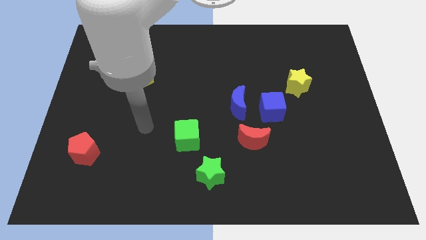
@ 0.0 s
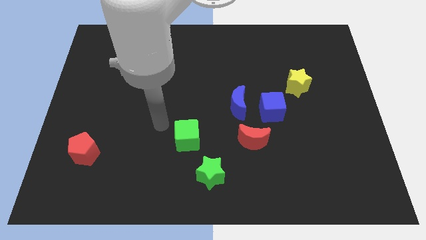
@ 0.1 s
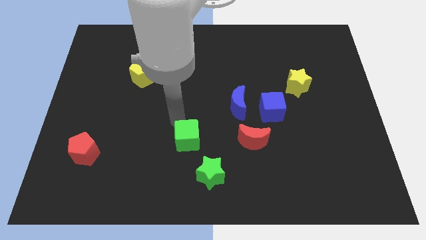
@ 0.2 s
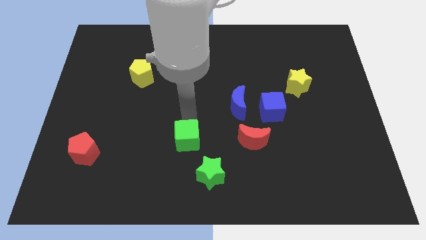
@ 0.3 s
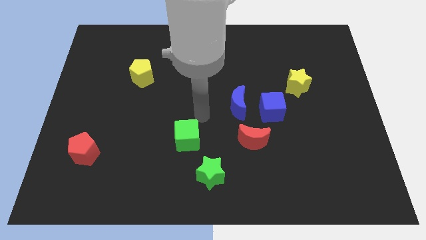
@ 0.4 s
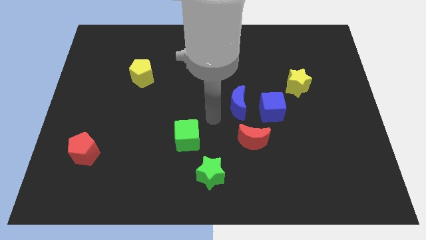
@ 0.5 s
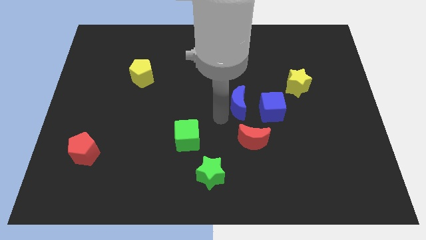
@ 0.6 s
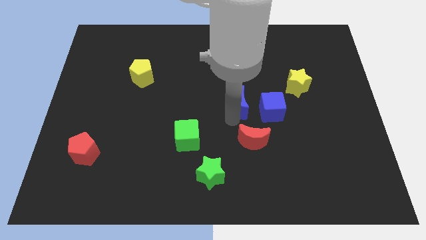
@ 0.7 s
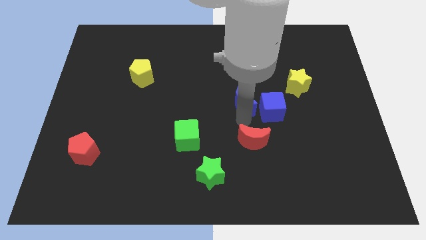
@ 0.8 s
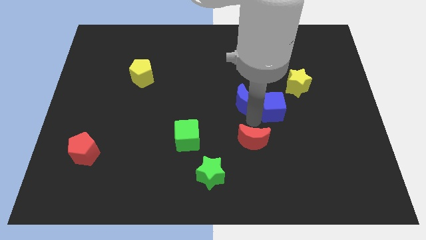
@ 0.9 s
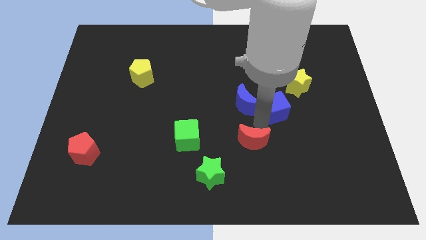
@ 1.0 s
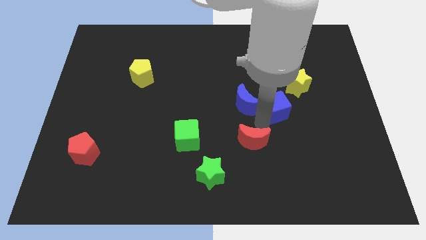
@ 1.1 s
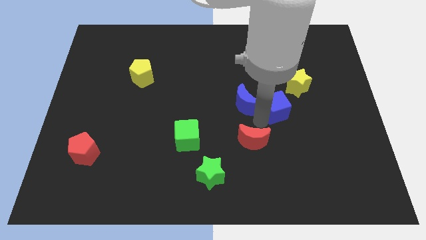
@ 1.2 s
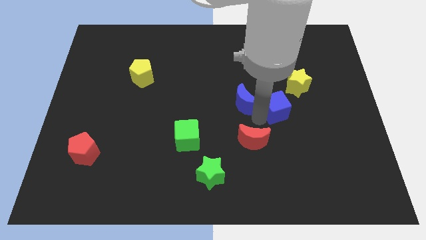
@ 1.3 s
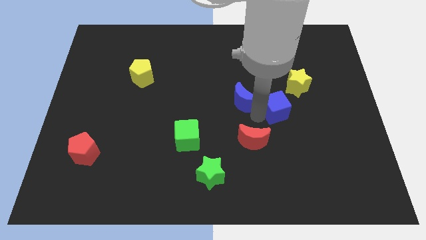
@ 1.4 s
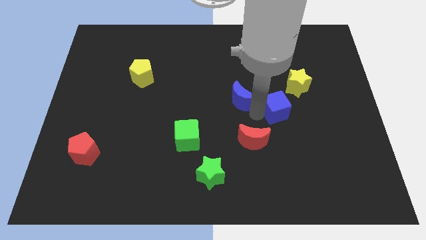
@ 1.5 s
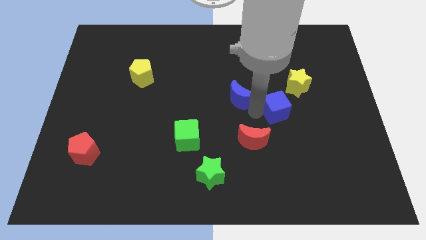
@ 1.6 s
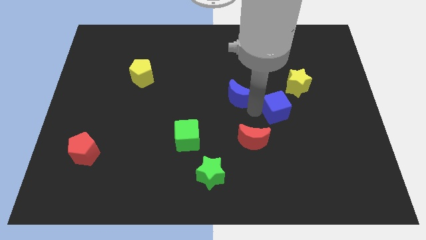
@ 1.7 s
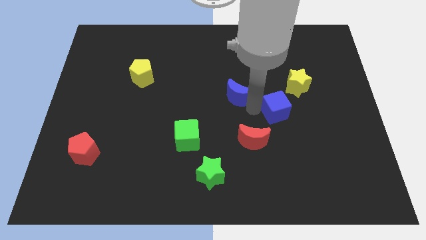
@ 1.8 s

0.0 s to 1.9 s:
pull the blue moon apart from the blue cube and red moon

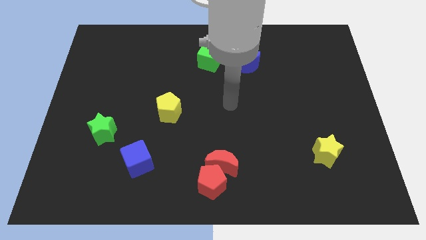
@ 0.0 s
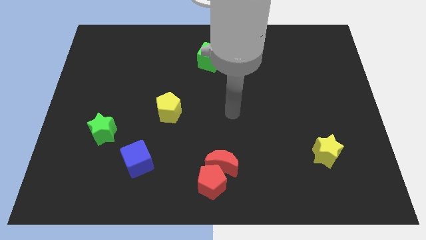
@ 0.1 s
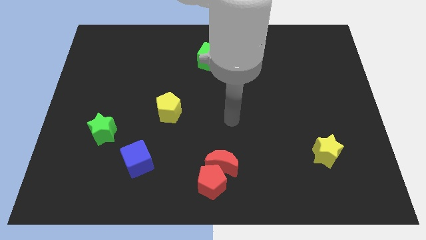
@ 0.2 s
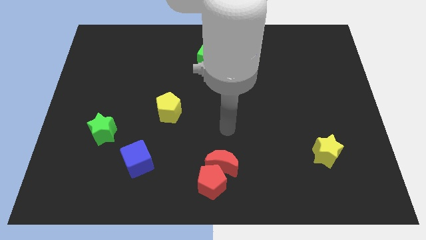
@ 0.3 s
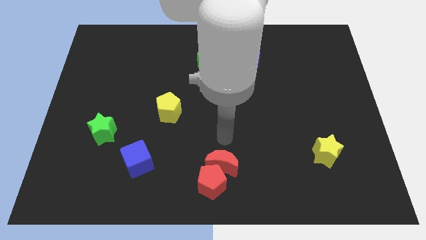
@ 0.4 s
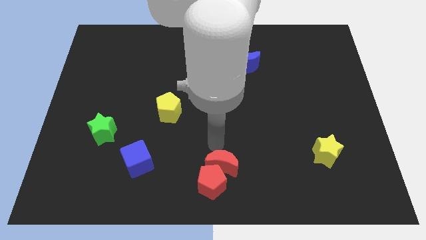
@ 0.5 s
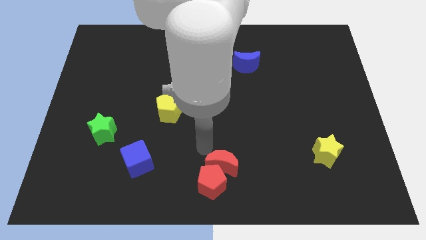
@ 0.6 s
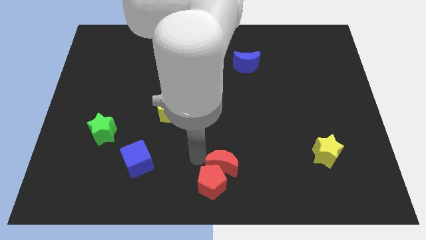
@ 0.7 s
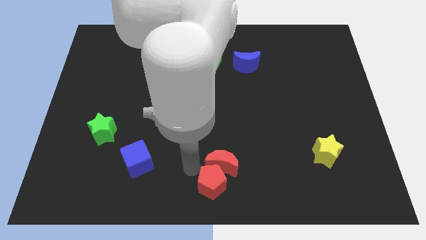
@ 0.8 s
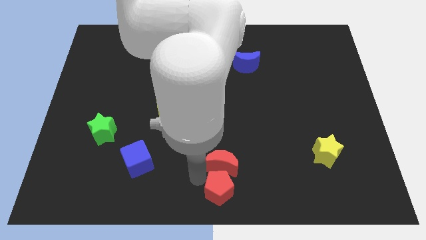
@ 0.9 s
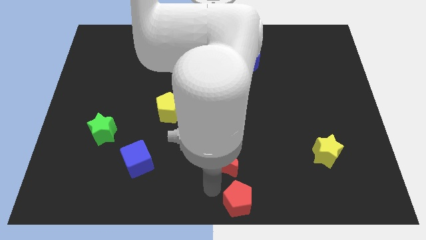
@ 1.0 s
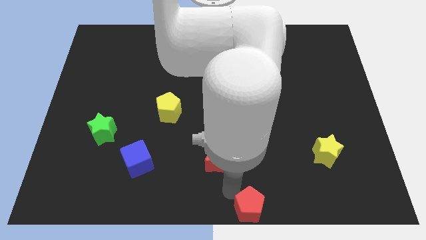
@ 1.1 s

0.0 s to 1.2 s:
move the red moon away from the red pentagon

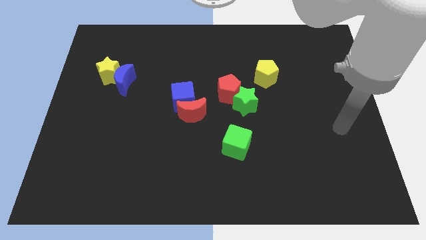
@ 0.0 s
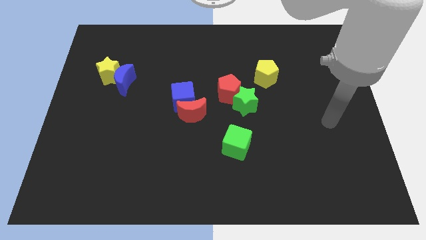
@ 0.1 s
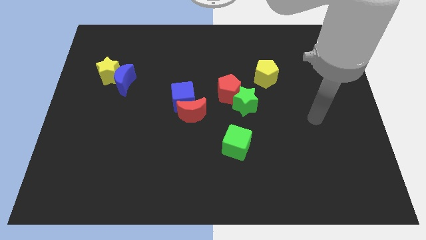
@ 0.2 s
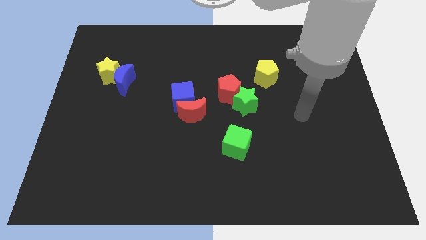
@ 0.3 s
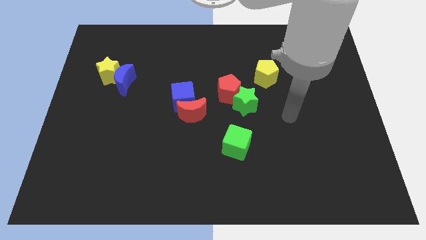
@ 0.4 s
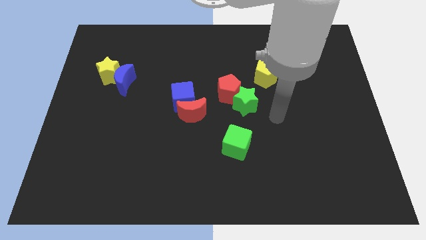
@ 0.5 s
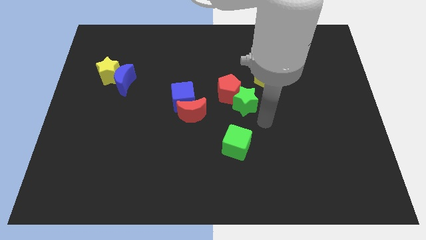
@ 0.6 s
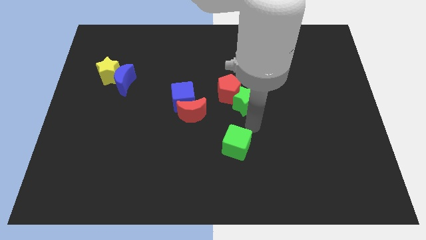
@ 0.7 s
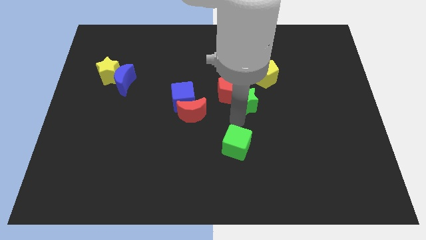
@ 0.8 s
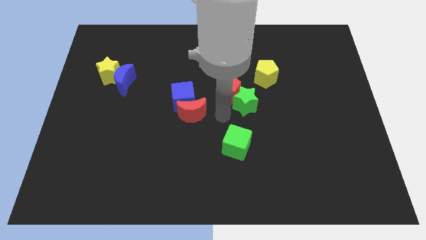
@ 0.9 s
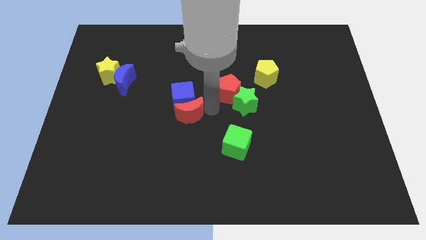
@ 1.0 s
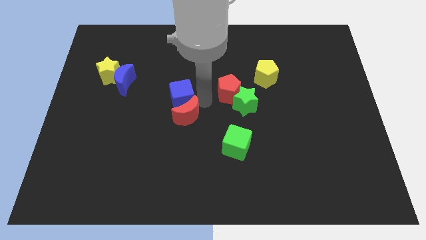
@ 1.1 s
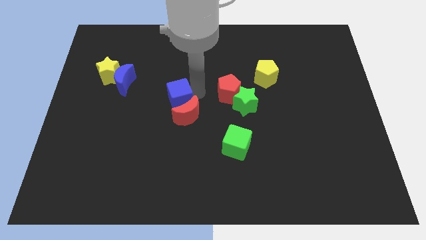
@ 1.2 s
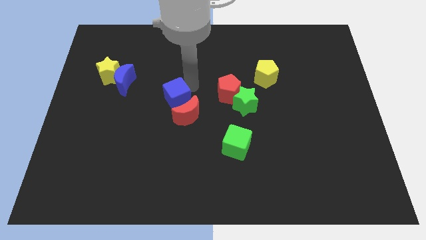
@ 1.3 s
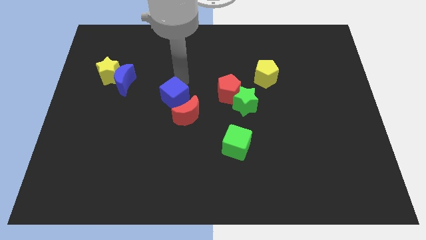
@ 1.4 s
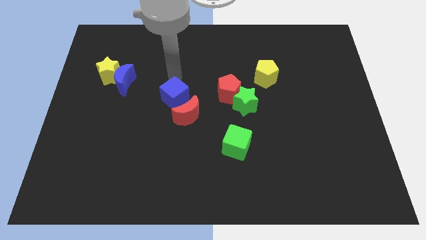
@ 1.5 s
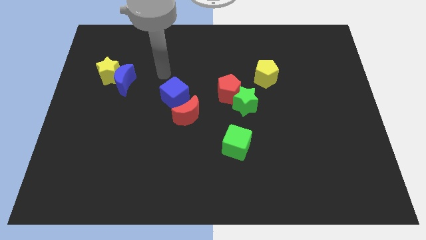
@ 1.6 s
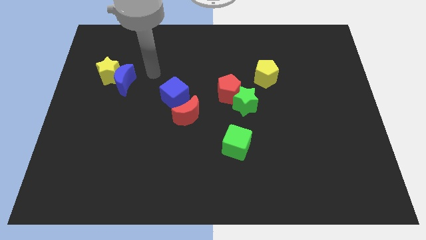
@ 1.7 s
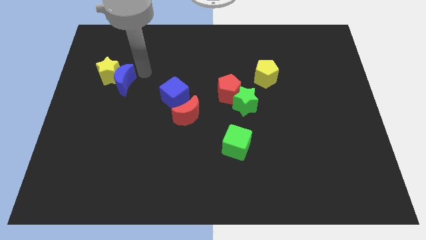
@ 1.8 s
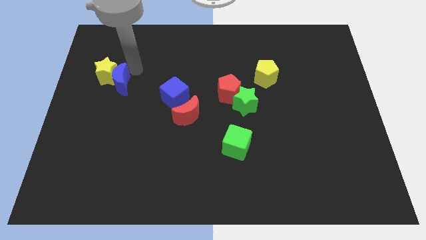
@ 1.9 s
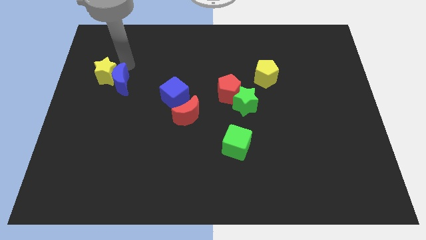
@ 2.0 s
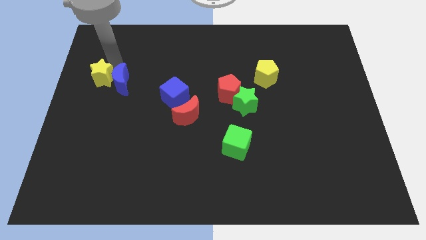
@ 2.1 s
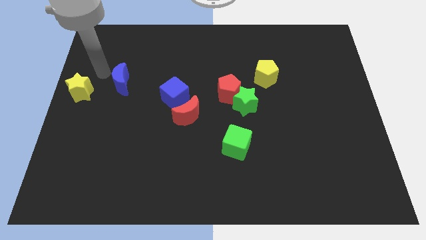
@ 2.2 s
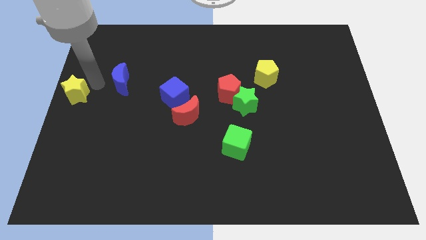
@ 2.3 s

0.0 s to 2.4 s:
separate the blue moon from the yellow star

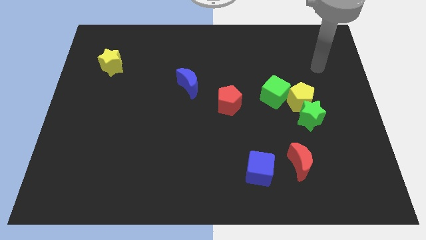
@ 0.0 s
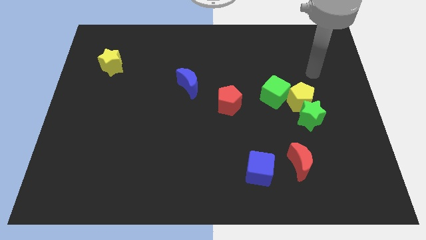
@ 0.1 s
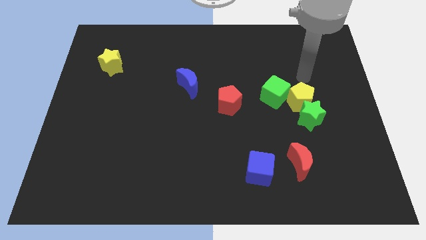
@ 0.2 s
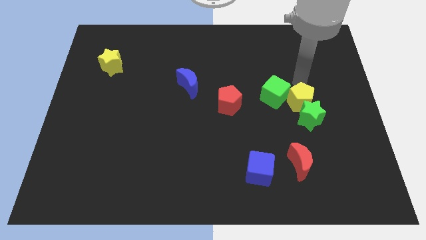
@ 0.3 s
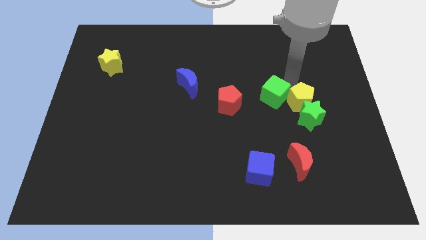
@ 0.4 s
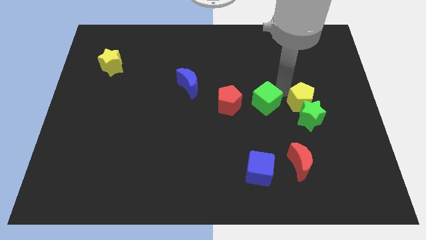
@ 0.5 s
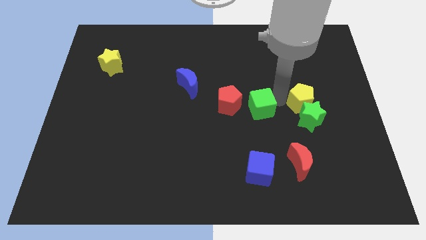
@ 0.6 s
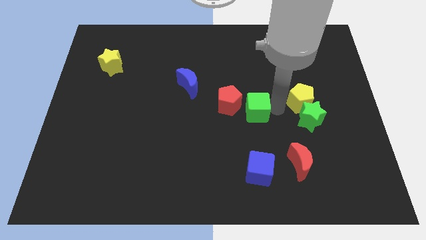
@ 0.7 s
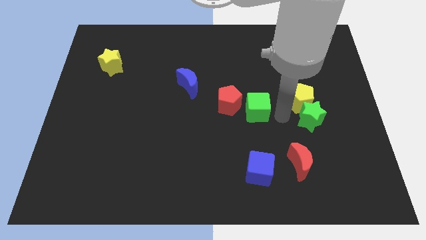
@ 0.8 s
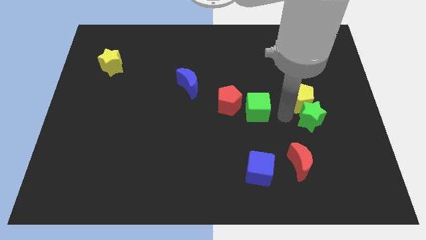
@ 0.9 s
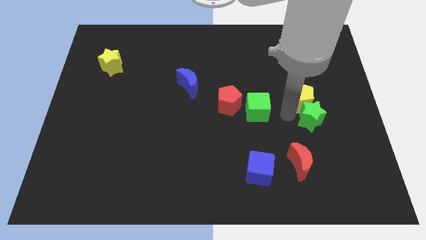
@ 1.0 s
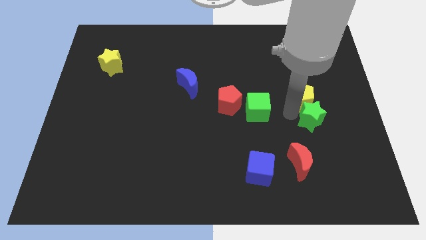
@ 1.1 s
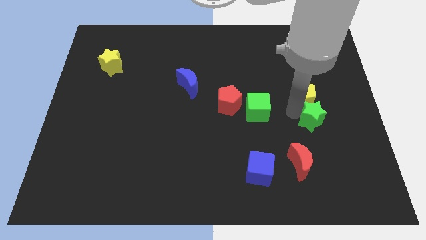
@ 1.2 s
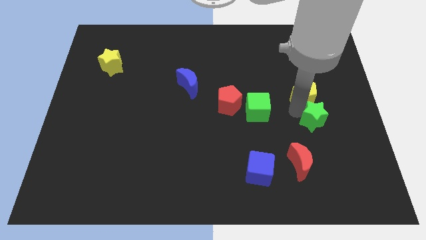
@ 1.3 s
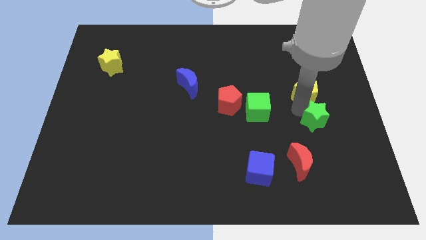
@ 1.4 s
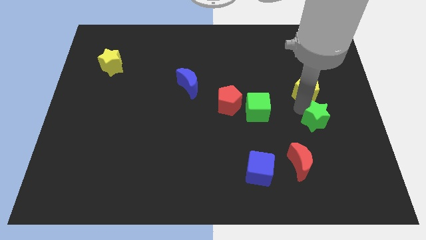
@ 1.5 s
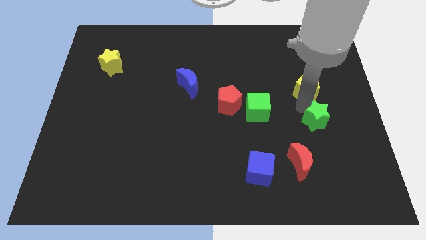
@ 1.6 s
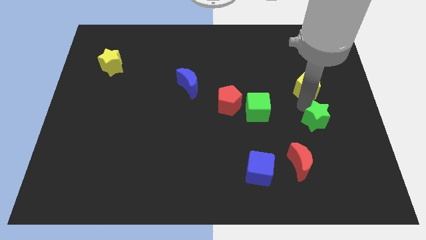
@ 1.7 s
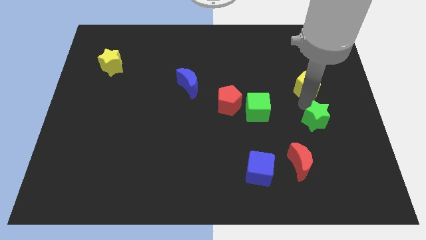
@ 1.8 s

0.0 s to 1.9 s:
move the yellow pentagon away from the green star and green cube

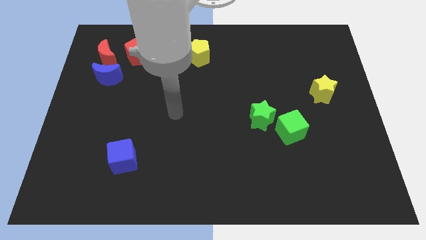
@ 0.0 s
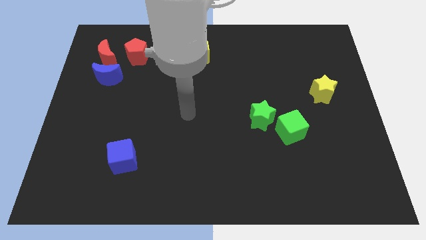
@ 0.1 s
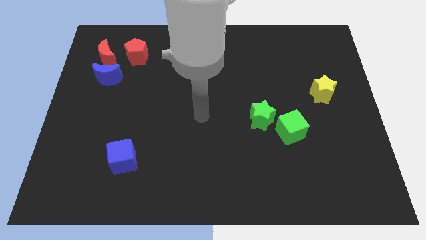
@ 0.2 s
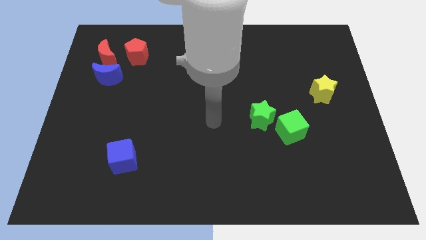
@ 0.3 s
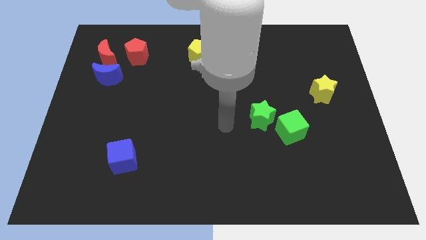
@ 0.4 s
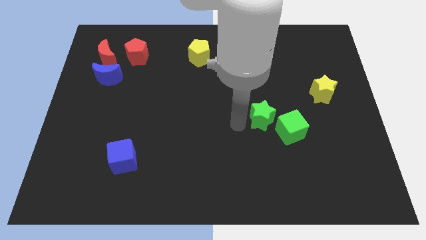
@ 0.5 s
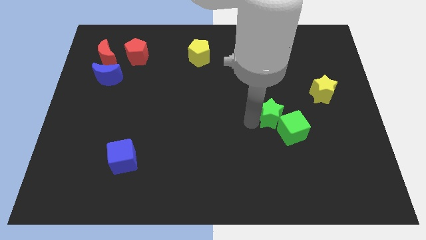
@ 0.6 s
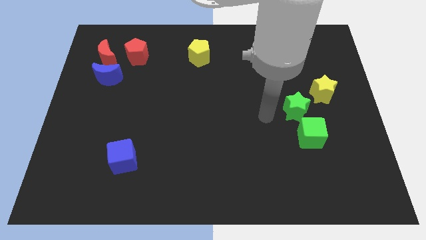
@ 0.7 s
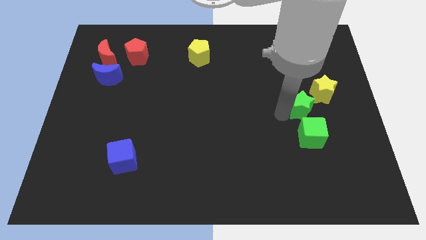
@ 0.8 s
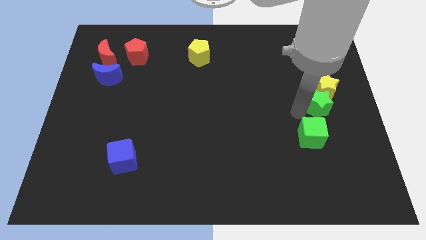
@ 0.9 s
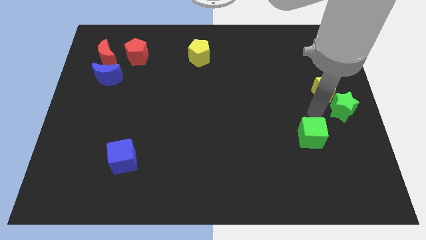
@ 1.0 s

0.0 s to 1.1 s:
pull the green cube apart from the green star

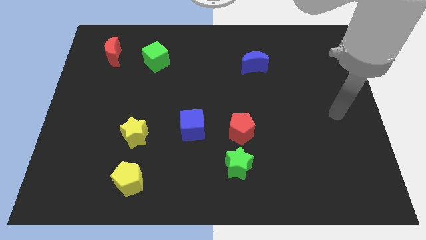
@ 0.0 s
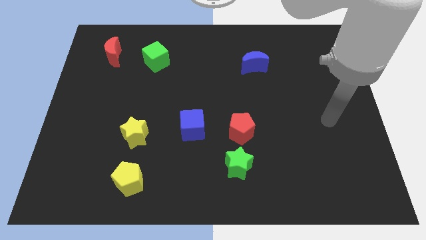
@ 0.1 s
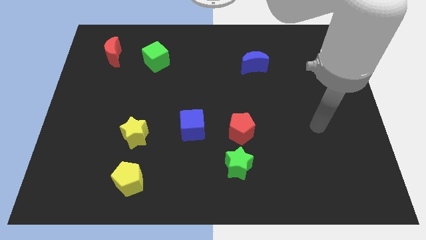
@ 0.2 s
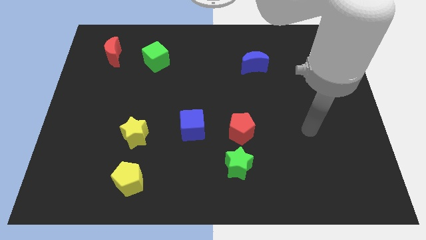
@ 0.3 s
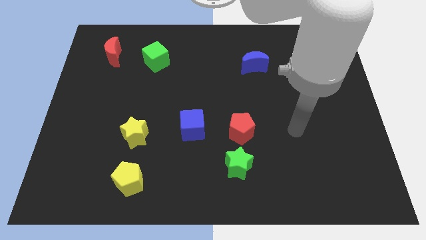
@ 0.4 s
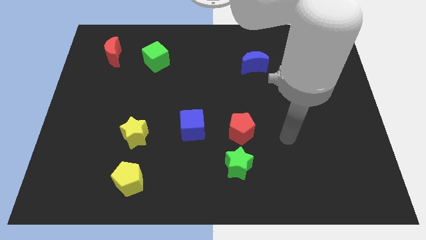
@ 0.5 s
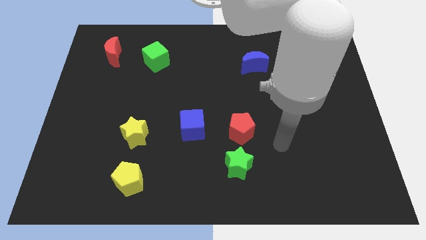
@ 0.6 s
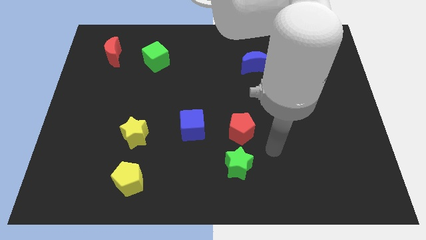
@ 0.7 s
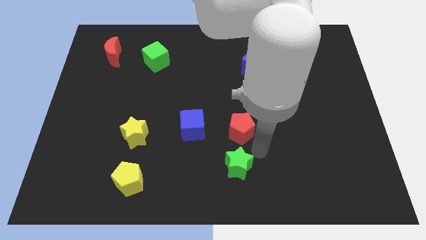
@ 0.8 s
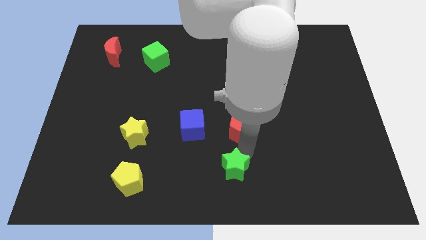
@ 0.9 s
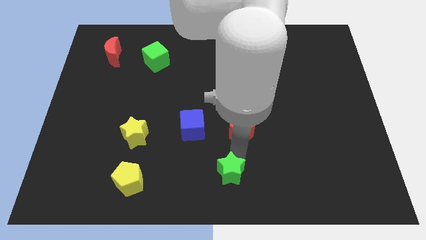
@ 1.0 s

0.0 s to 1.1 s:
separate the red pentagon from the green star
